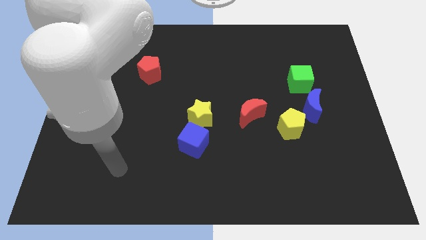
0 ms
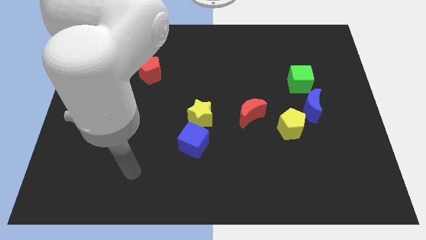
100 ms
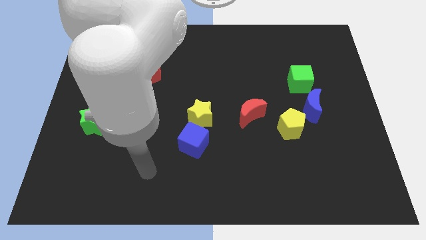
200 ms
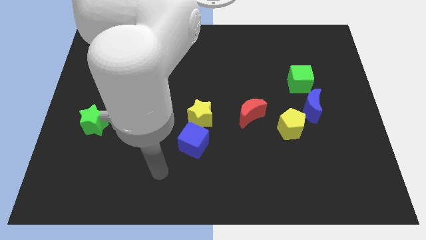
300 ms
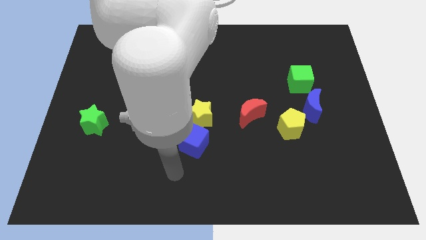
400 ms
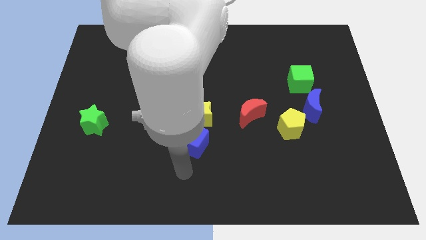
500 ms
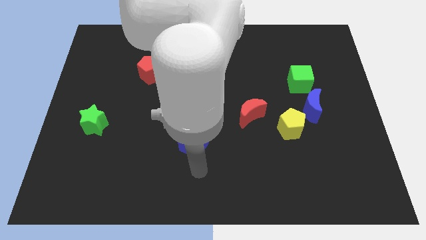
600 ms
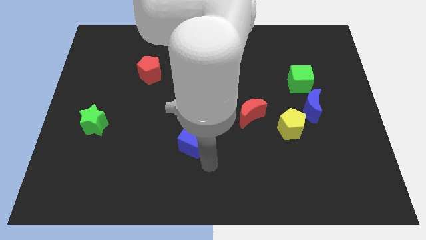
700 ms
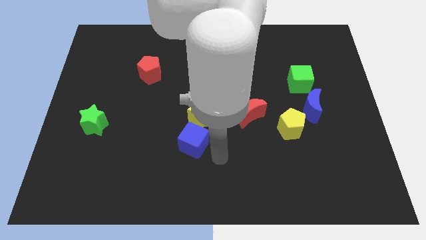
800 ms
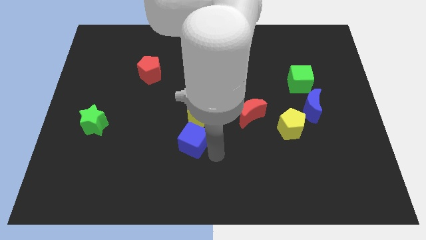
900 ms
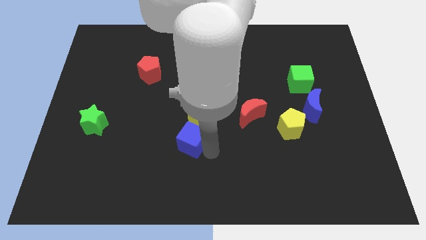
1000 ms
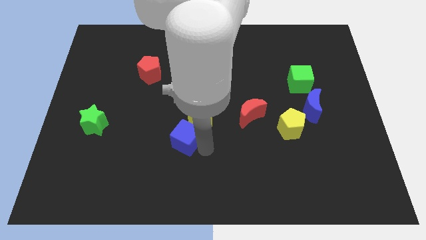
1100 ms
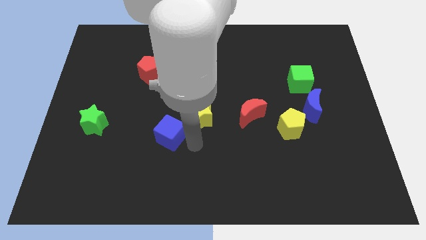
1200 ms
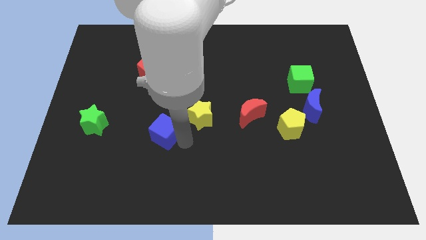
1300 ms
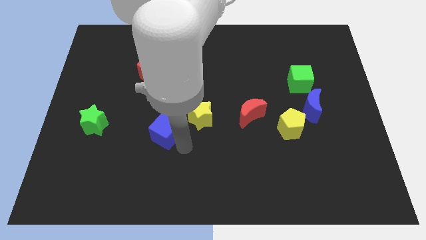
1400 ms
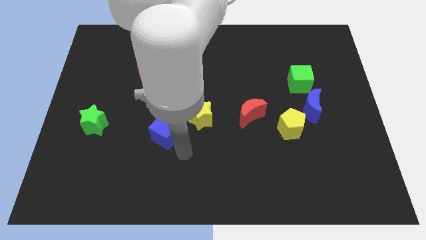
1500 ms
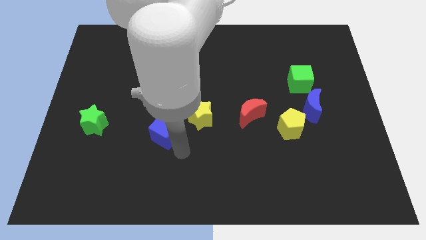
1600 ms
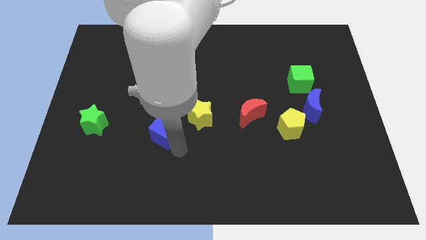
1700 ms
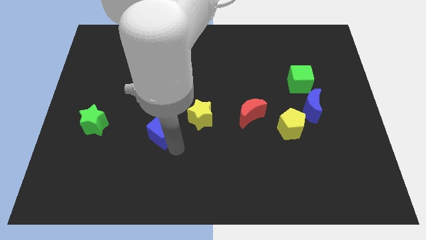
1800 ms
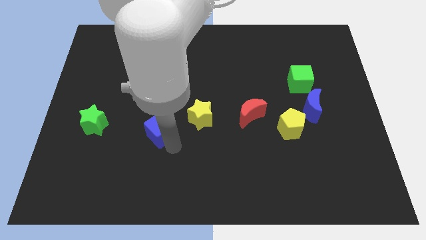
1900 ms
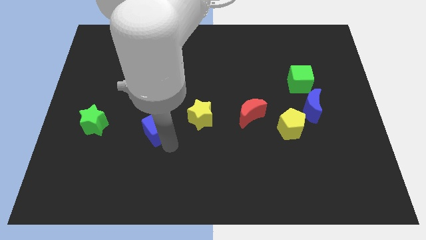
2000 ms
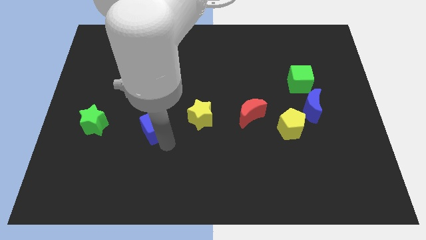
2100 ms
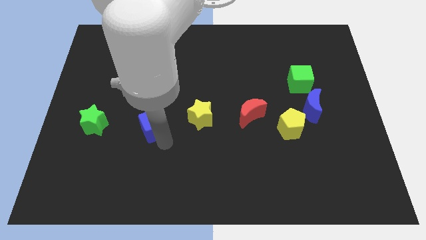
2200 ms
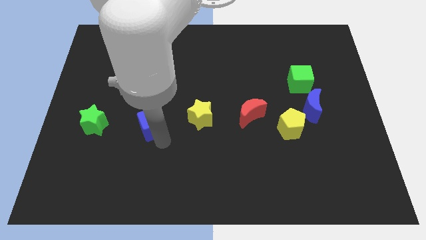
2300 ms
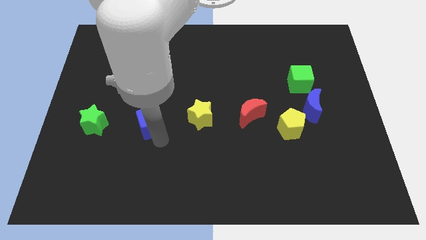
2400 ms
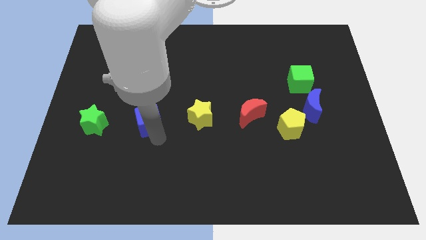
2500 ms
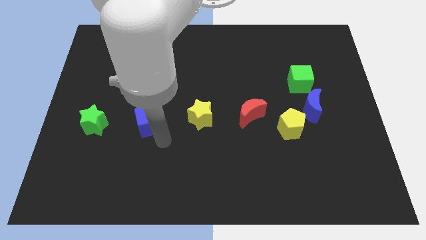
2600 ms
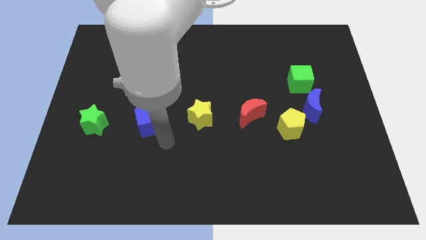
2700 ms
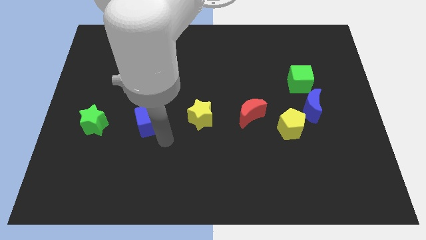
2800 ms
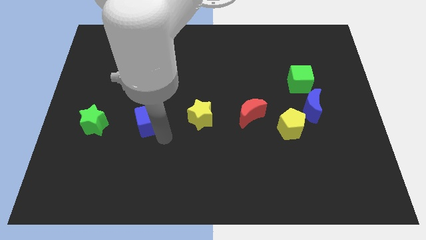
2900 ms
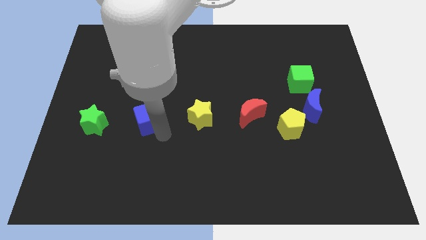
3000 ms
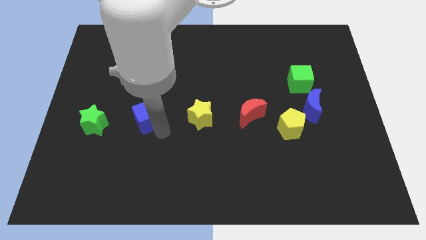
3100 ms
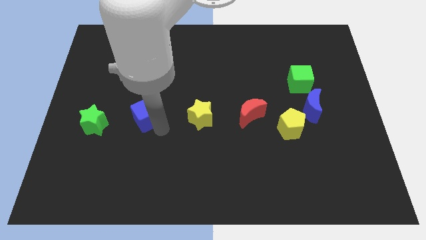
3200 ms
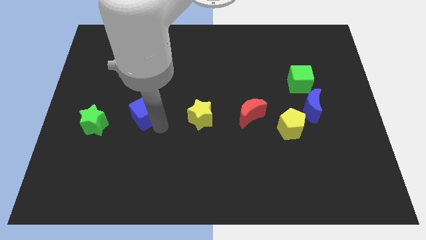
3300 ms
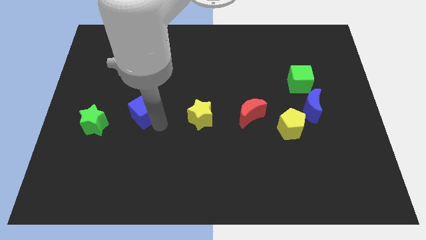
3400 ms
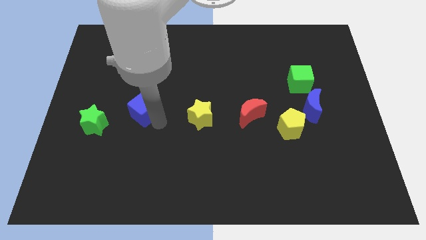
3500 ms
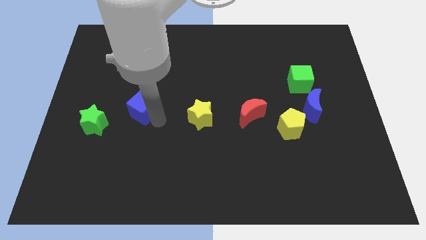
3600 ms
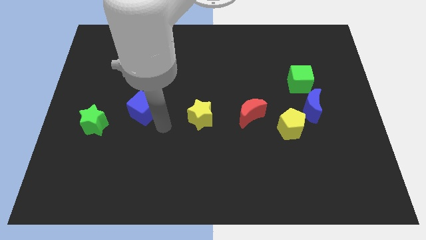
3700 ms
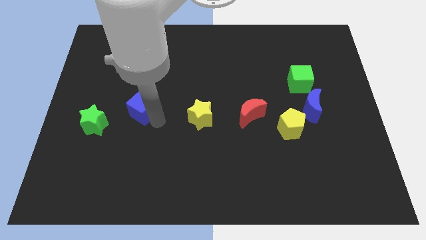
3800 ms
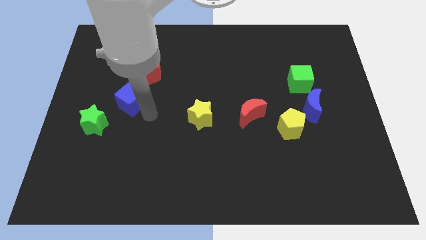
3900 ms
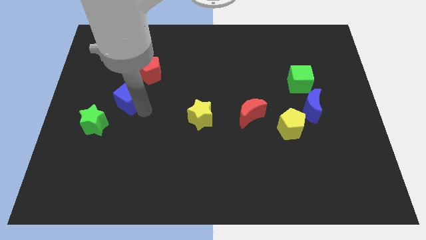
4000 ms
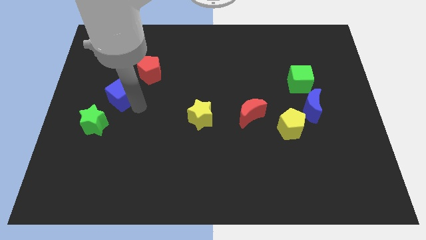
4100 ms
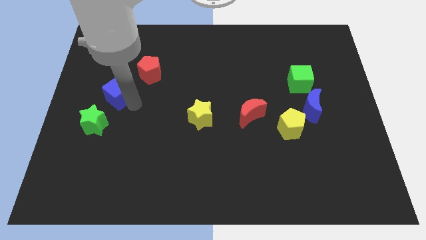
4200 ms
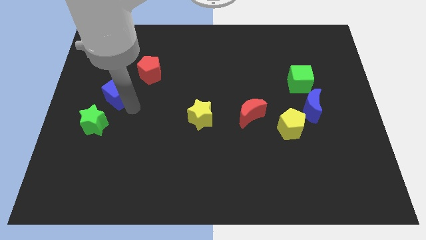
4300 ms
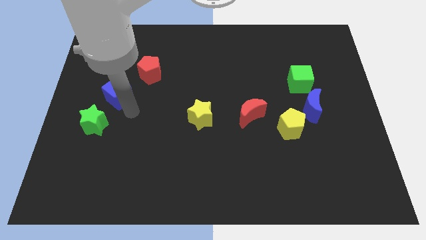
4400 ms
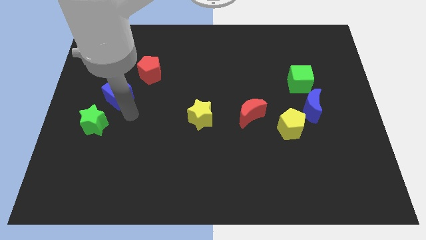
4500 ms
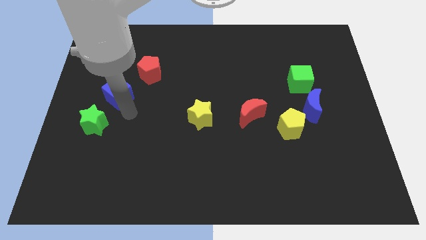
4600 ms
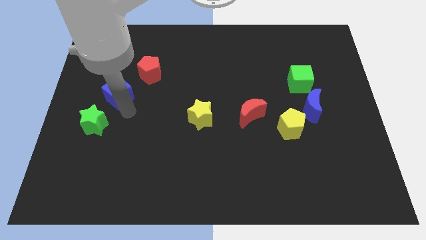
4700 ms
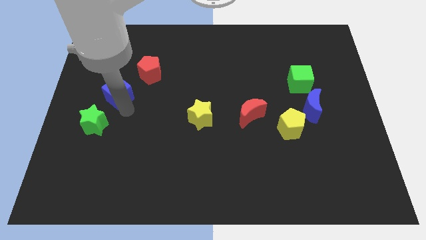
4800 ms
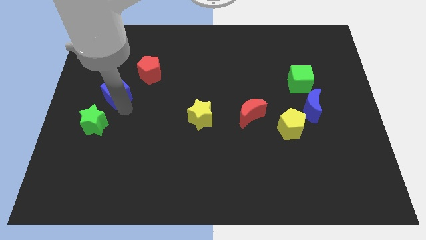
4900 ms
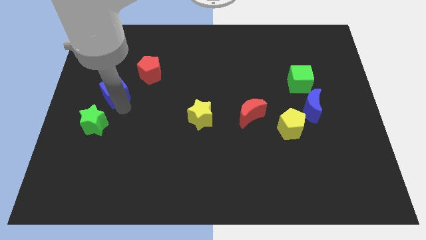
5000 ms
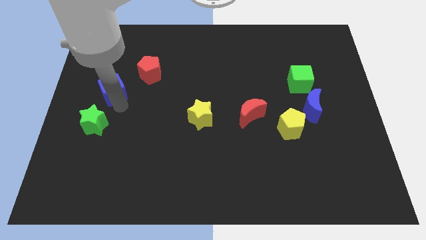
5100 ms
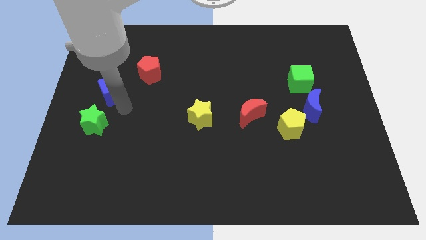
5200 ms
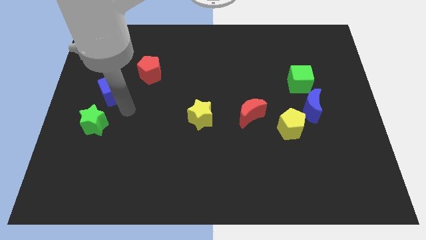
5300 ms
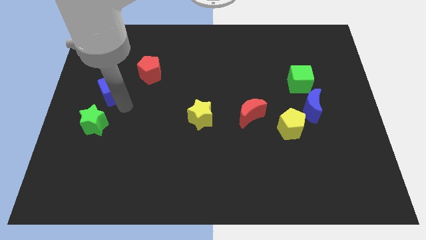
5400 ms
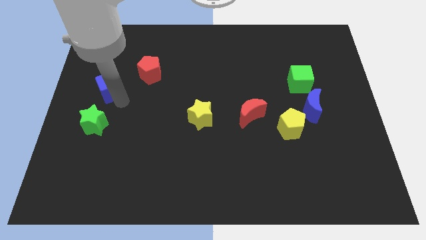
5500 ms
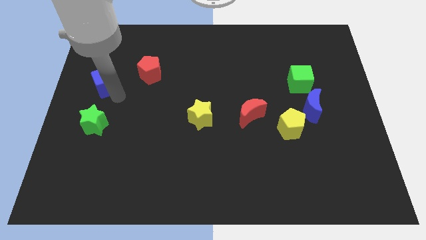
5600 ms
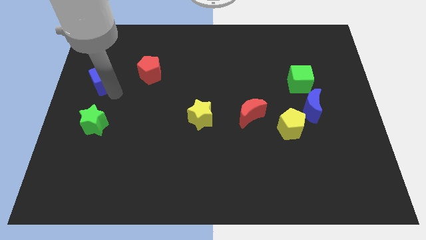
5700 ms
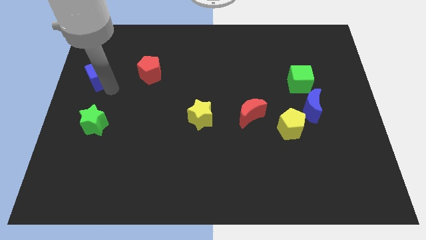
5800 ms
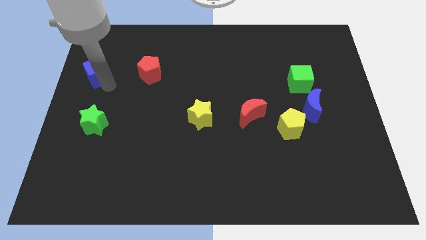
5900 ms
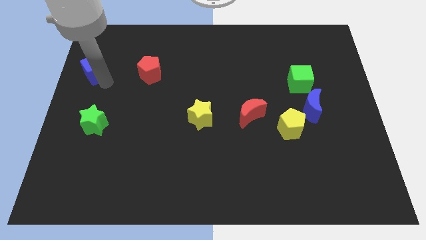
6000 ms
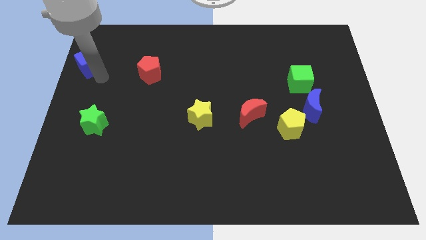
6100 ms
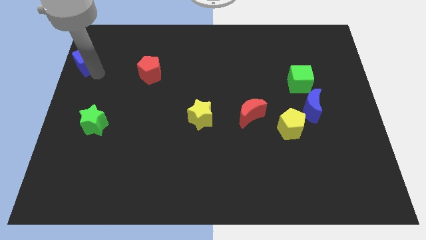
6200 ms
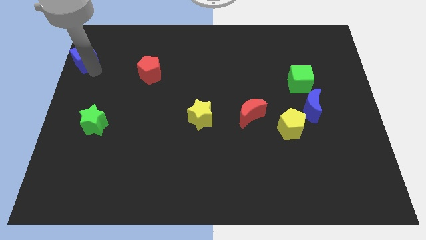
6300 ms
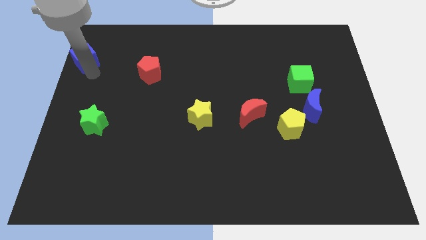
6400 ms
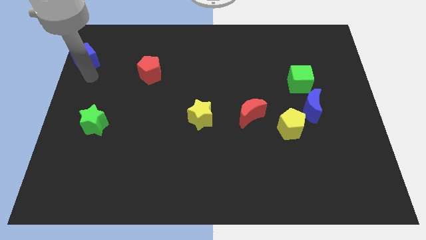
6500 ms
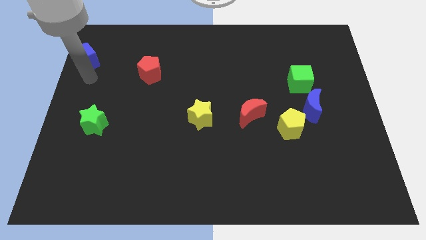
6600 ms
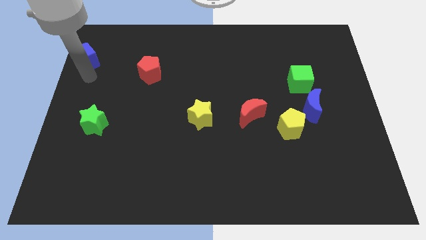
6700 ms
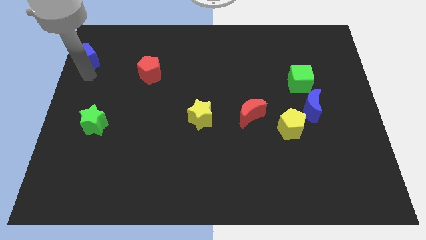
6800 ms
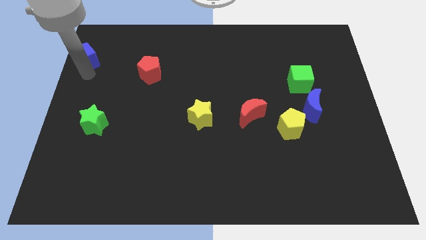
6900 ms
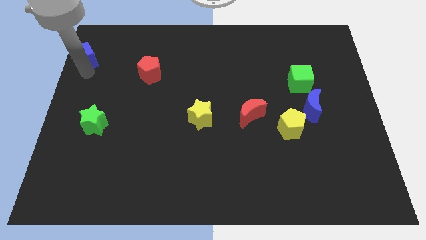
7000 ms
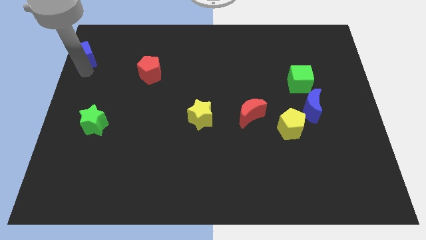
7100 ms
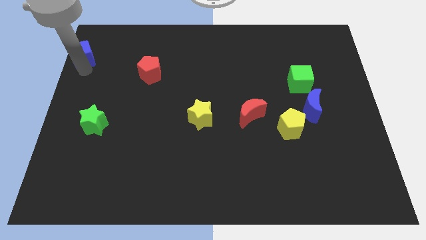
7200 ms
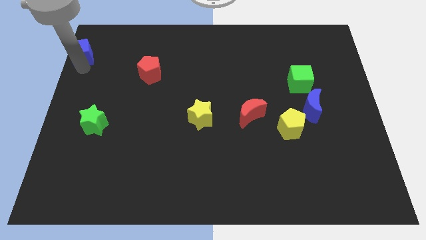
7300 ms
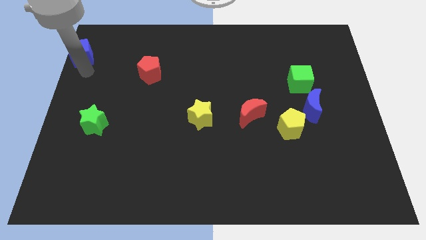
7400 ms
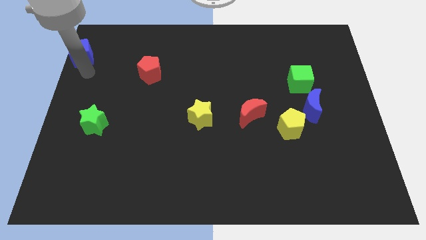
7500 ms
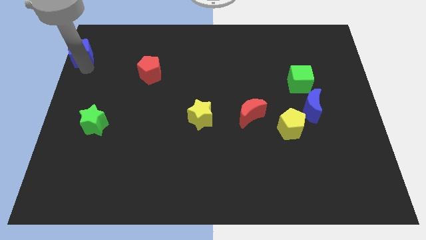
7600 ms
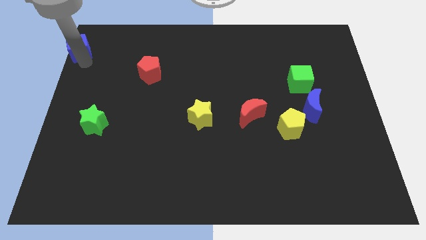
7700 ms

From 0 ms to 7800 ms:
put the blue cube to the upper left corner
